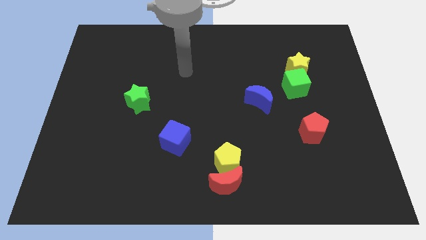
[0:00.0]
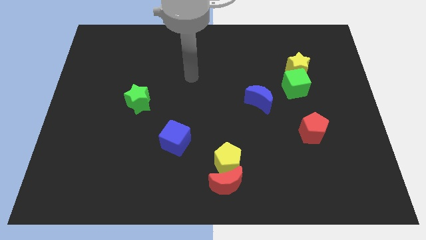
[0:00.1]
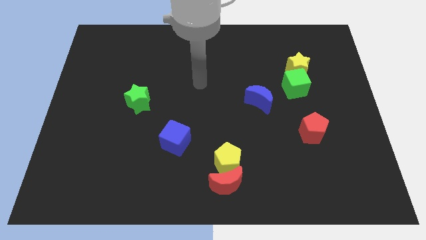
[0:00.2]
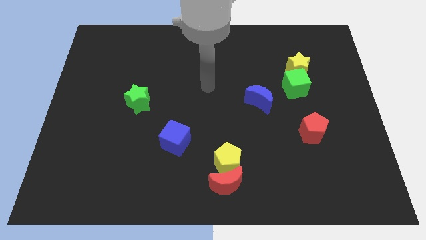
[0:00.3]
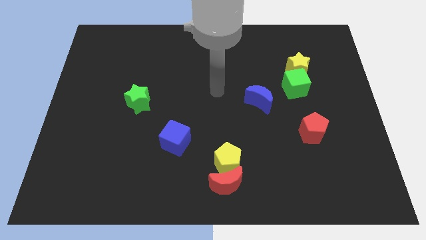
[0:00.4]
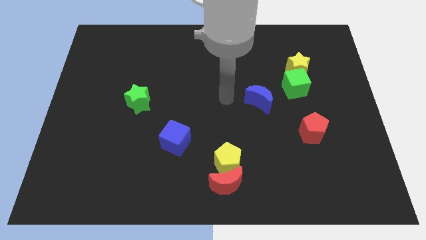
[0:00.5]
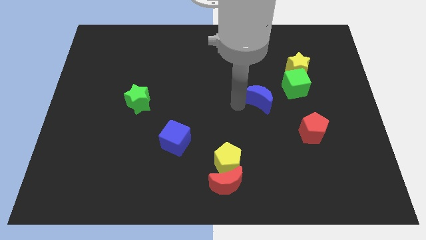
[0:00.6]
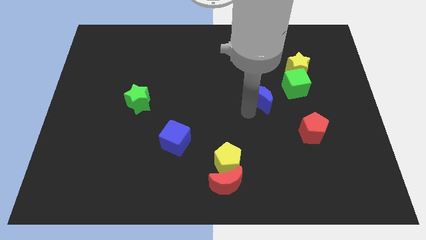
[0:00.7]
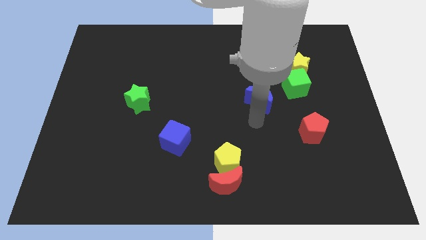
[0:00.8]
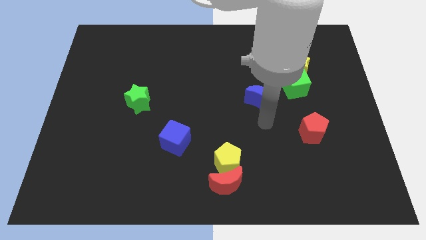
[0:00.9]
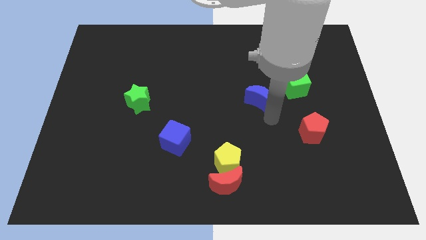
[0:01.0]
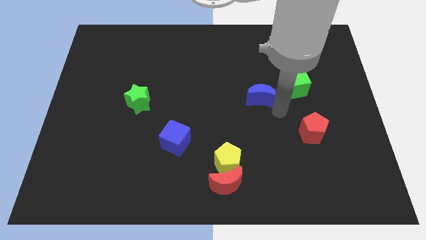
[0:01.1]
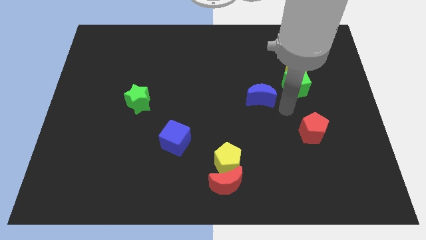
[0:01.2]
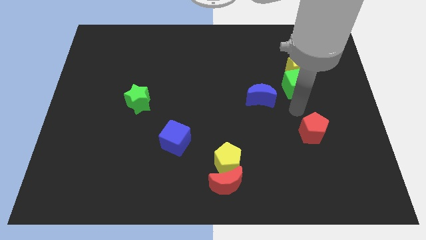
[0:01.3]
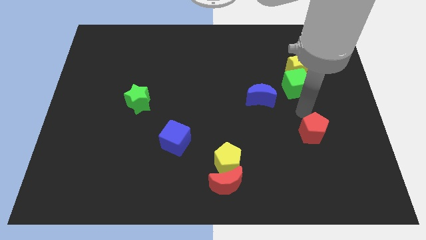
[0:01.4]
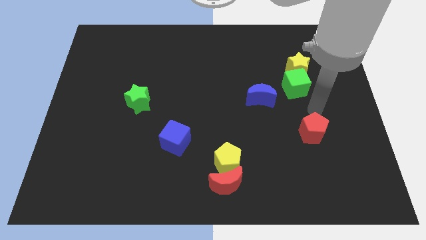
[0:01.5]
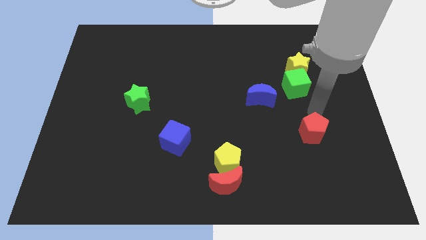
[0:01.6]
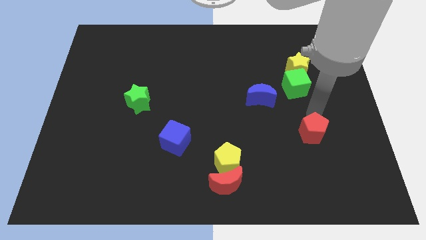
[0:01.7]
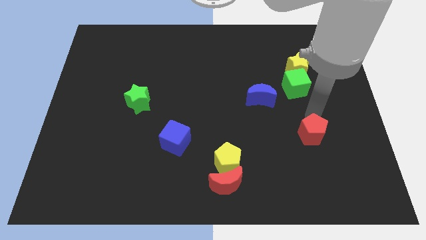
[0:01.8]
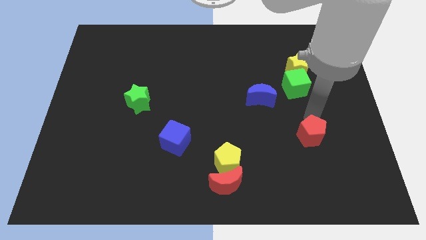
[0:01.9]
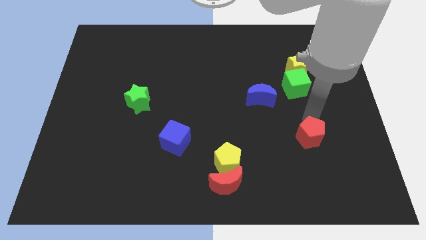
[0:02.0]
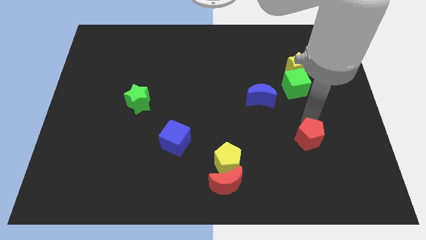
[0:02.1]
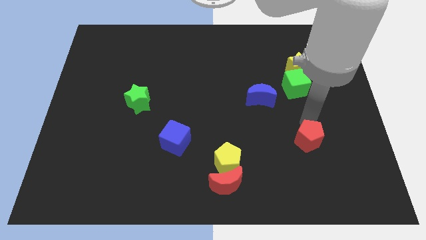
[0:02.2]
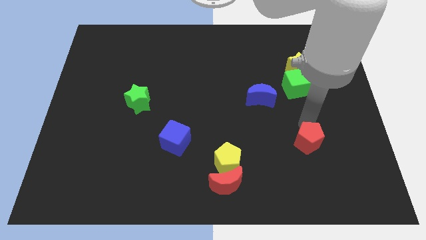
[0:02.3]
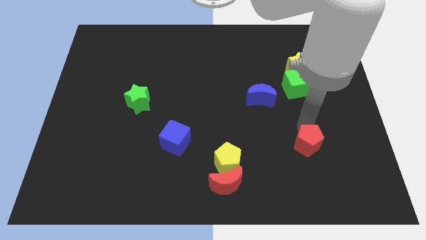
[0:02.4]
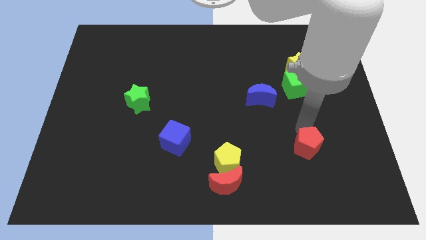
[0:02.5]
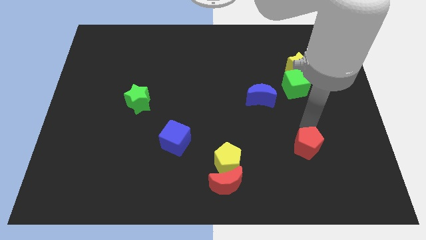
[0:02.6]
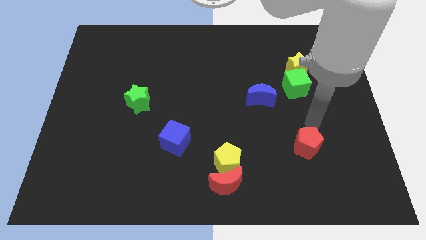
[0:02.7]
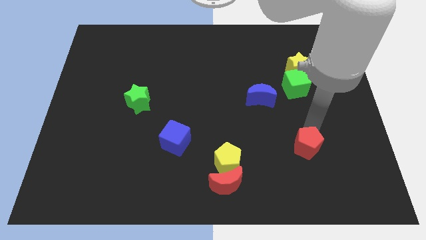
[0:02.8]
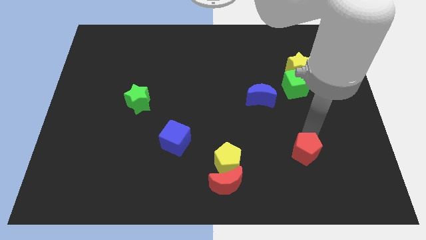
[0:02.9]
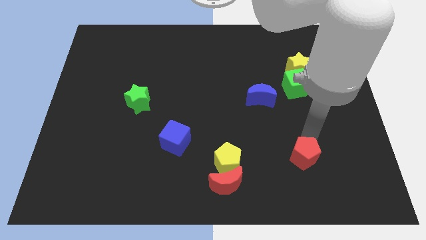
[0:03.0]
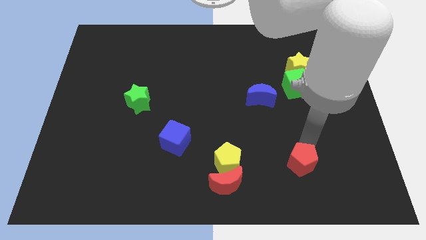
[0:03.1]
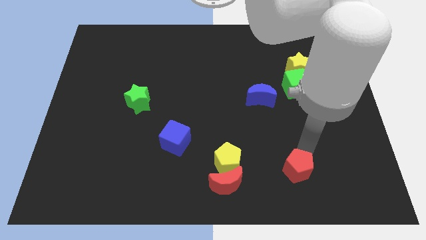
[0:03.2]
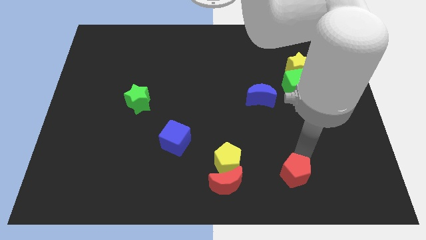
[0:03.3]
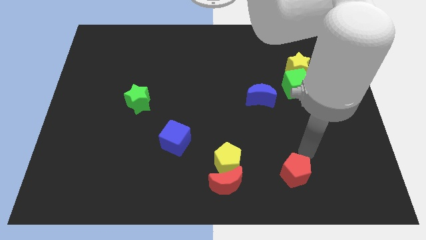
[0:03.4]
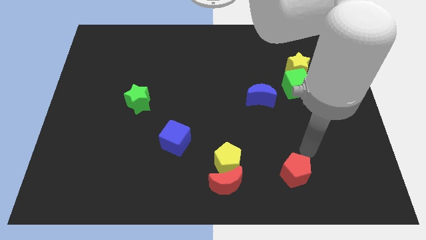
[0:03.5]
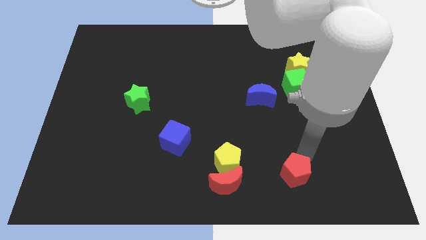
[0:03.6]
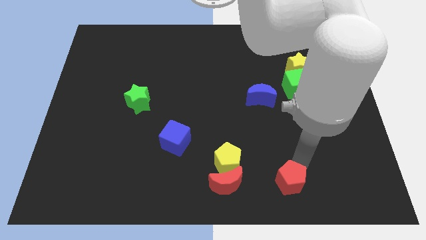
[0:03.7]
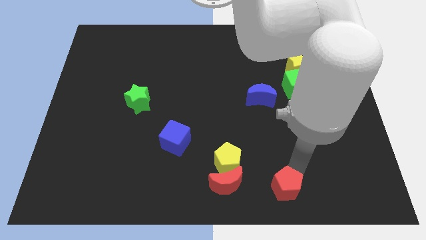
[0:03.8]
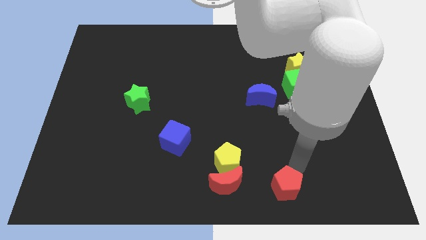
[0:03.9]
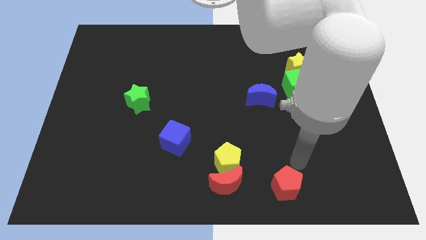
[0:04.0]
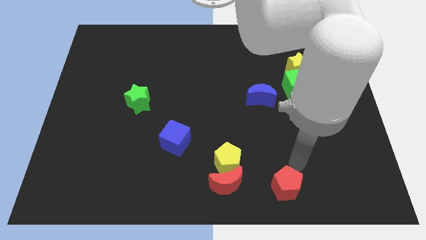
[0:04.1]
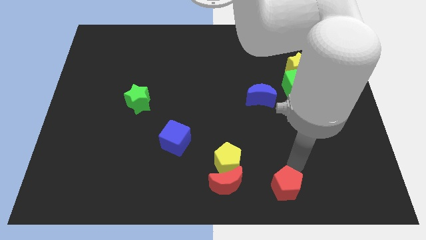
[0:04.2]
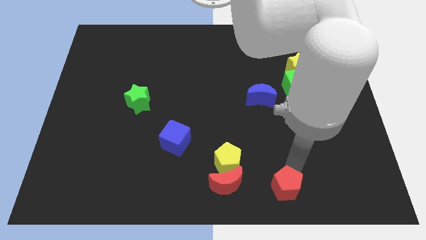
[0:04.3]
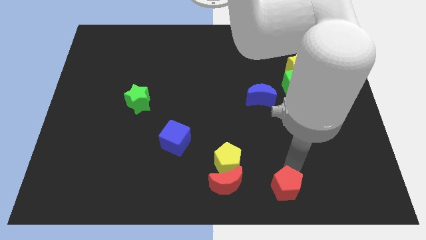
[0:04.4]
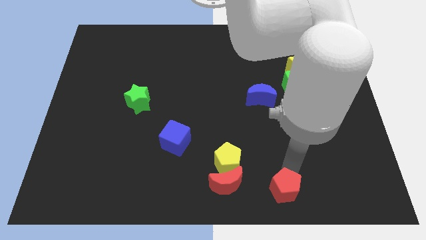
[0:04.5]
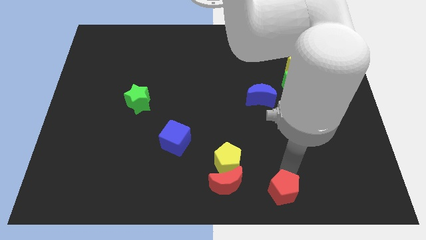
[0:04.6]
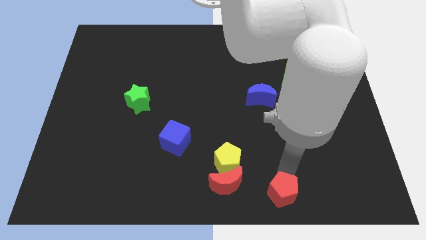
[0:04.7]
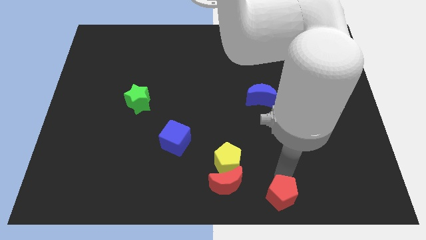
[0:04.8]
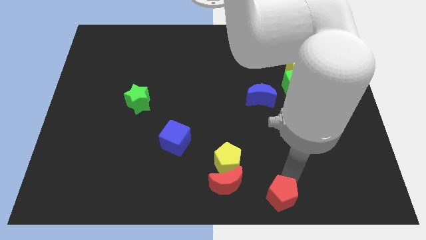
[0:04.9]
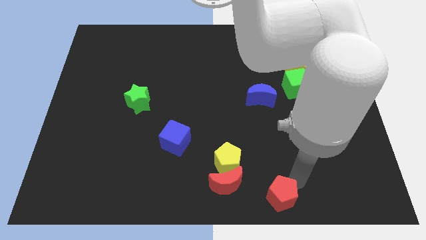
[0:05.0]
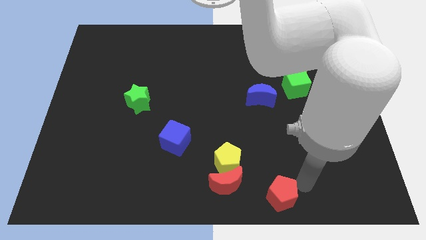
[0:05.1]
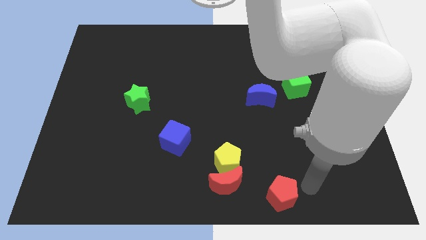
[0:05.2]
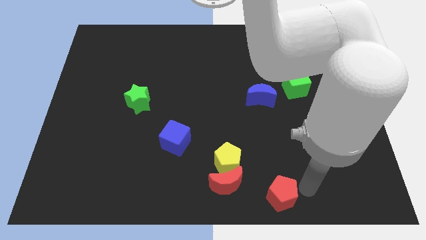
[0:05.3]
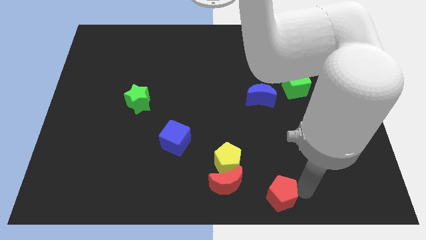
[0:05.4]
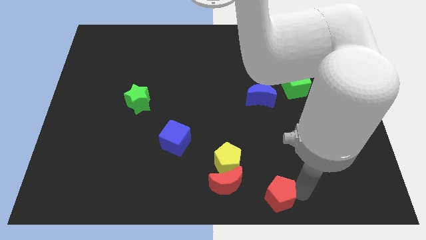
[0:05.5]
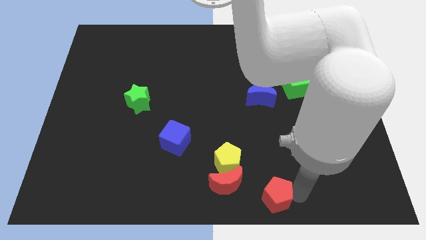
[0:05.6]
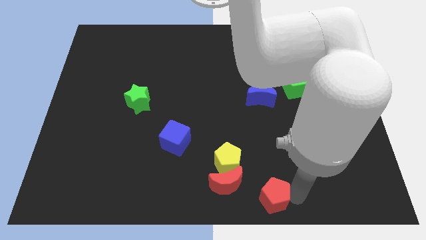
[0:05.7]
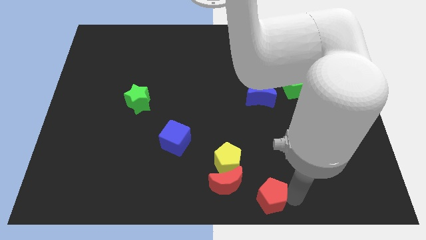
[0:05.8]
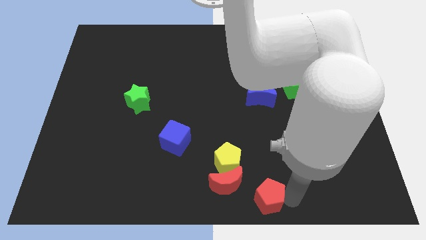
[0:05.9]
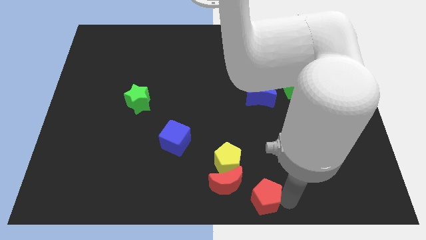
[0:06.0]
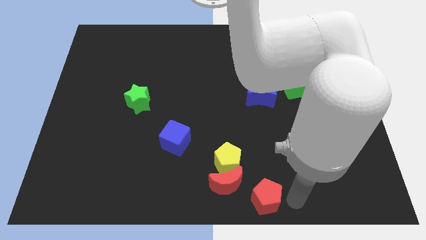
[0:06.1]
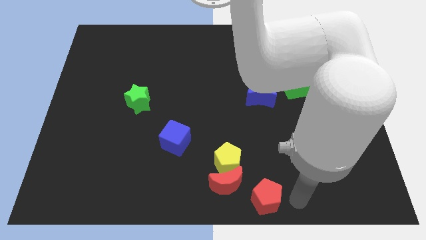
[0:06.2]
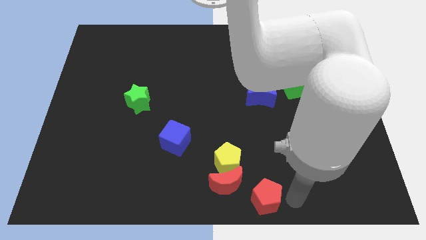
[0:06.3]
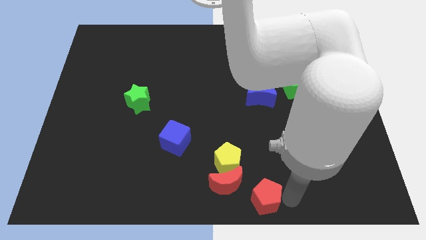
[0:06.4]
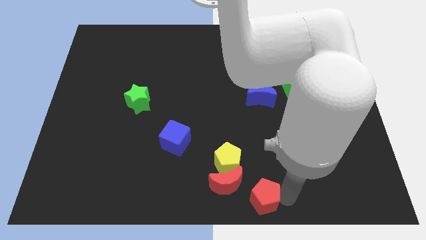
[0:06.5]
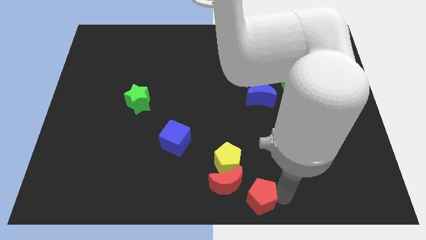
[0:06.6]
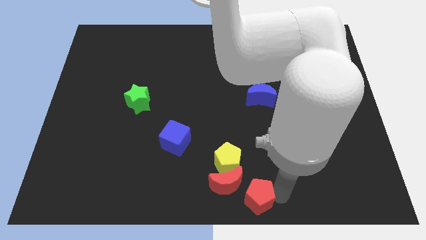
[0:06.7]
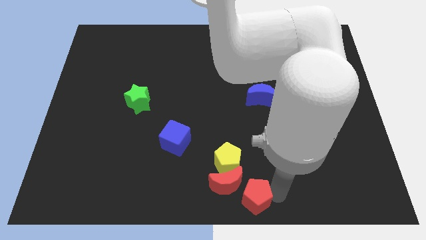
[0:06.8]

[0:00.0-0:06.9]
slide the red pentagon next to the red moon

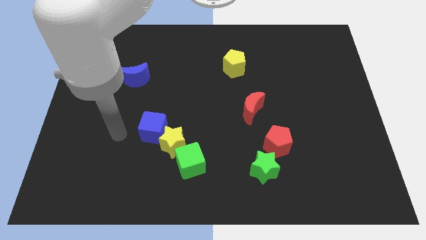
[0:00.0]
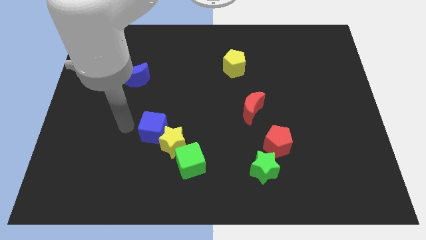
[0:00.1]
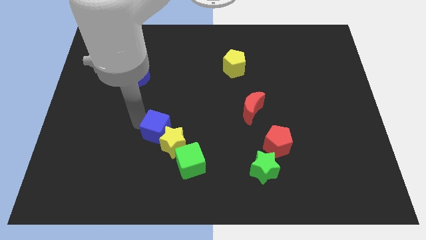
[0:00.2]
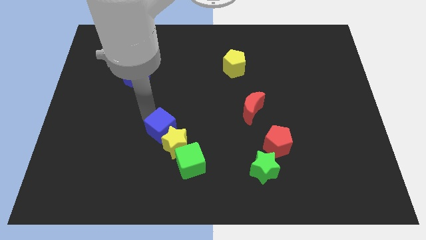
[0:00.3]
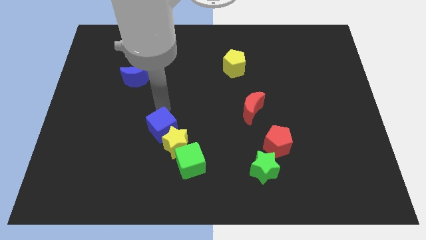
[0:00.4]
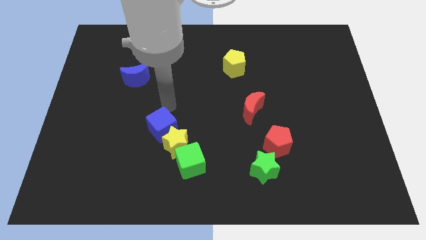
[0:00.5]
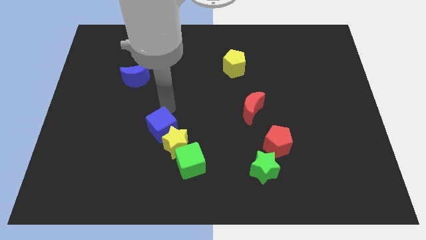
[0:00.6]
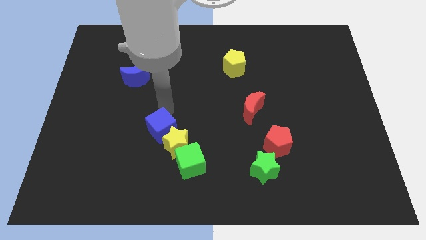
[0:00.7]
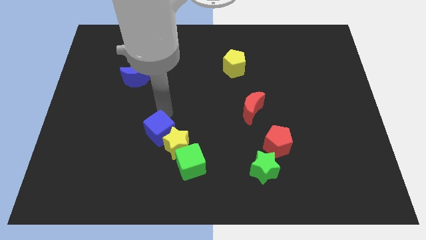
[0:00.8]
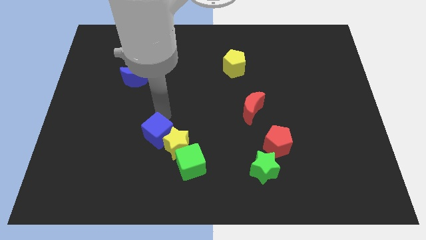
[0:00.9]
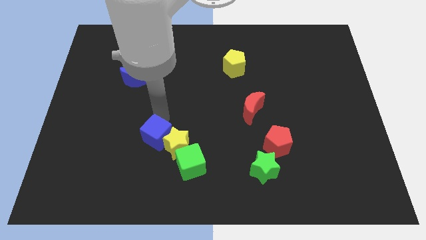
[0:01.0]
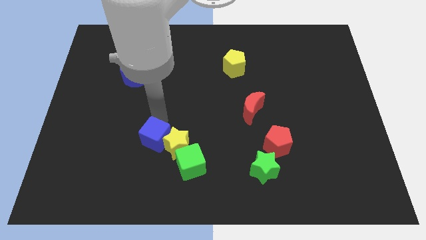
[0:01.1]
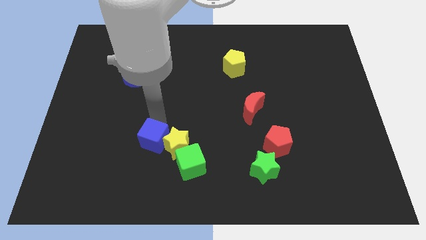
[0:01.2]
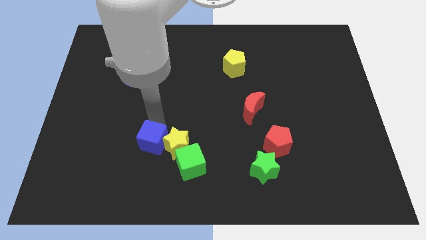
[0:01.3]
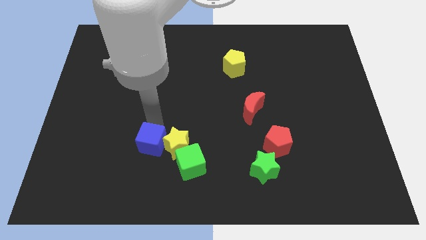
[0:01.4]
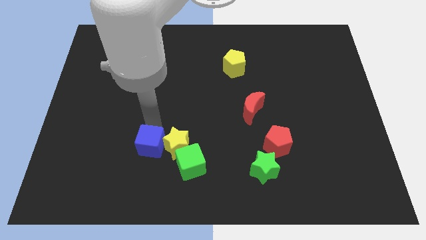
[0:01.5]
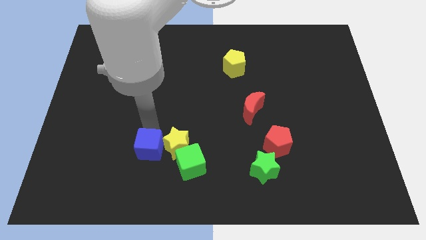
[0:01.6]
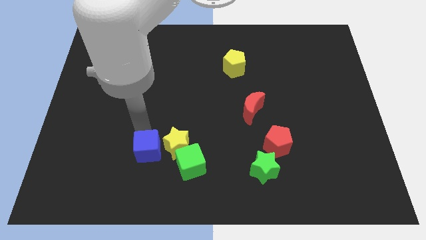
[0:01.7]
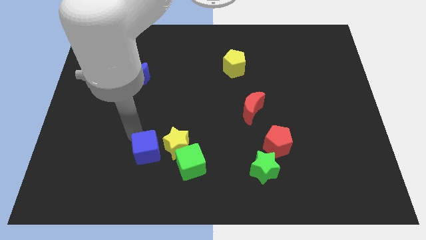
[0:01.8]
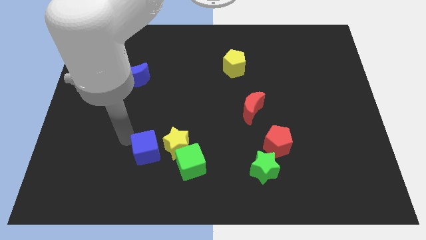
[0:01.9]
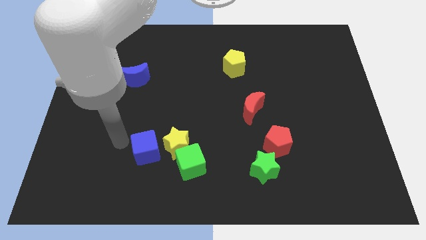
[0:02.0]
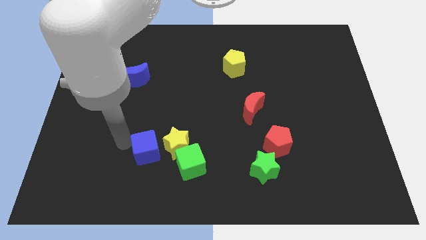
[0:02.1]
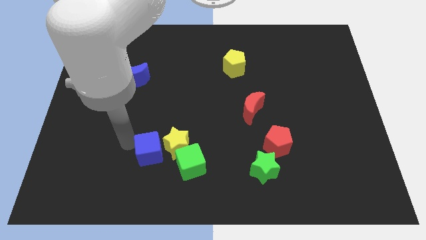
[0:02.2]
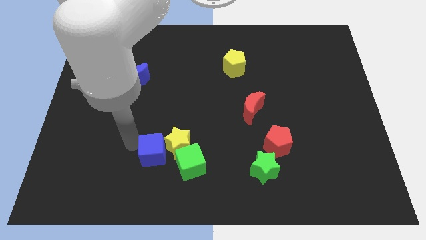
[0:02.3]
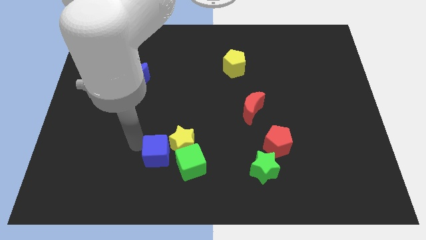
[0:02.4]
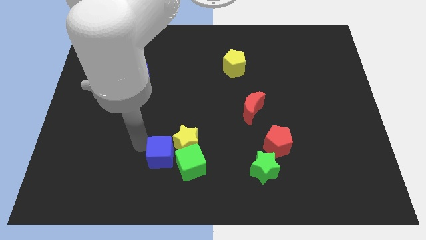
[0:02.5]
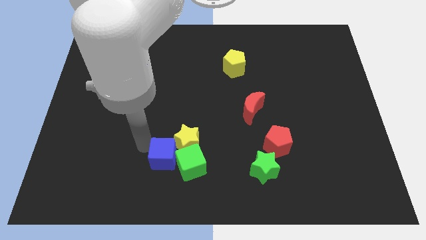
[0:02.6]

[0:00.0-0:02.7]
move the blue cube to the green cube
